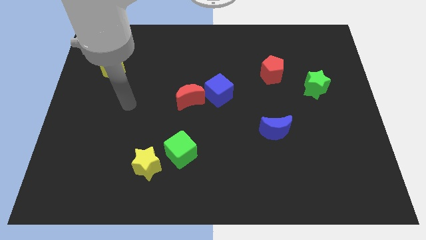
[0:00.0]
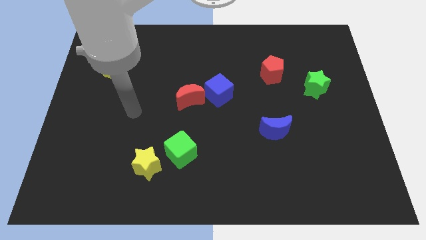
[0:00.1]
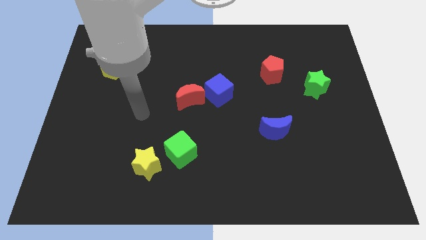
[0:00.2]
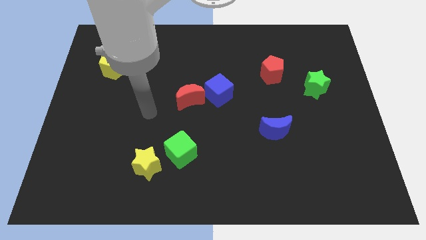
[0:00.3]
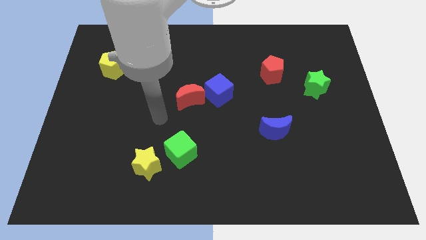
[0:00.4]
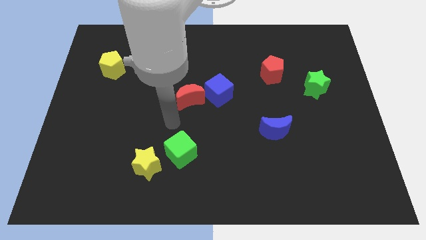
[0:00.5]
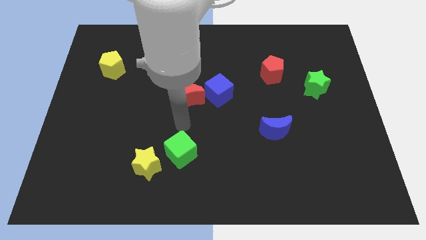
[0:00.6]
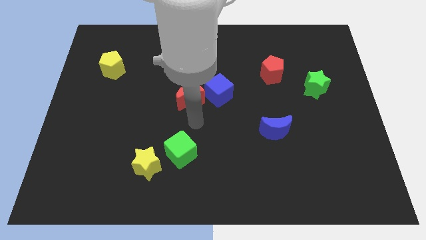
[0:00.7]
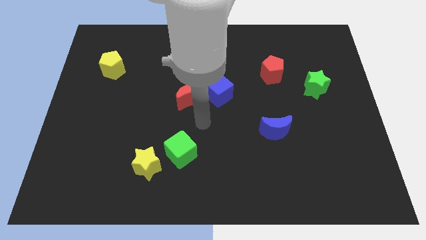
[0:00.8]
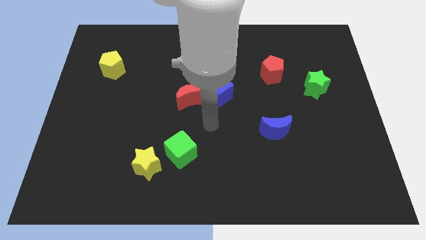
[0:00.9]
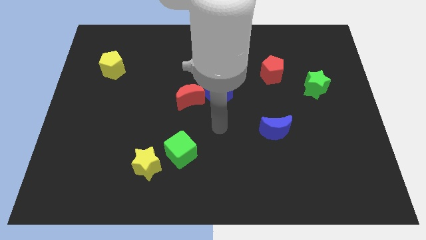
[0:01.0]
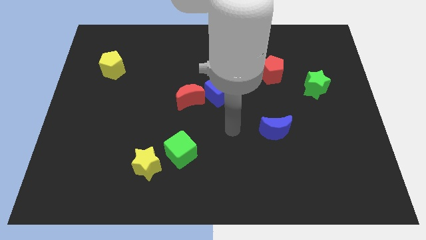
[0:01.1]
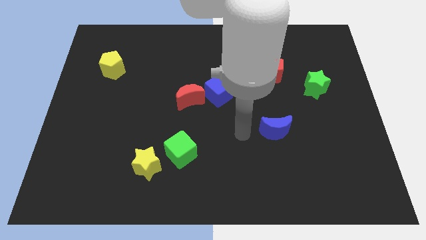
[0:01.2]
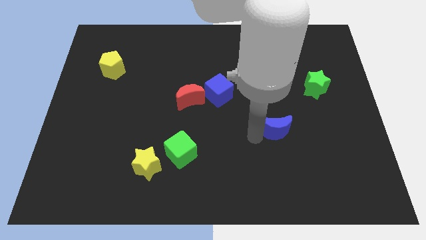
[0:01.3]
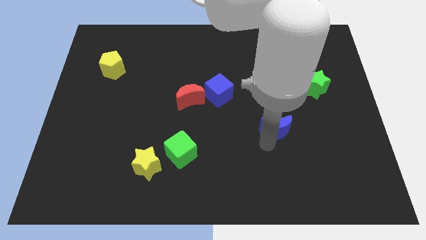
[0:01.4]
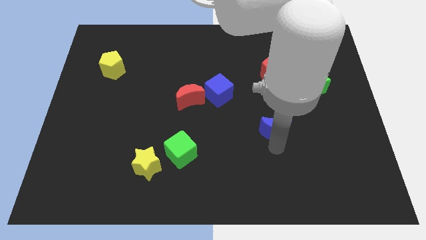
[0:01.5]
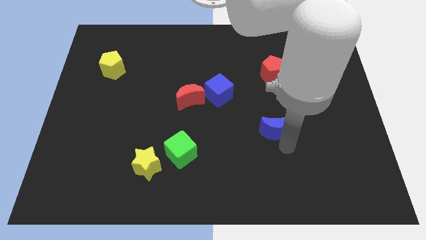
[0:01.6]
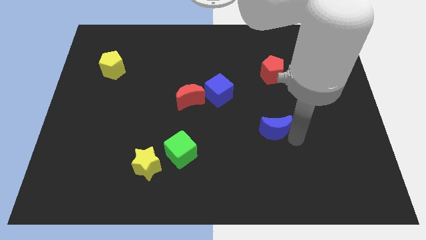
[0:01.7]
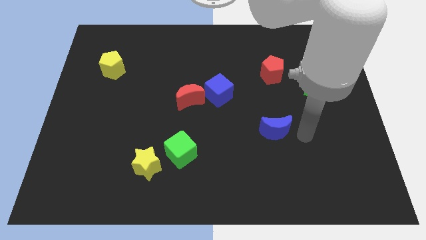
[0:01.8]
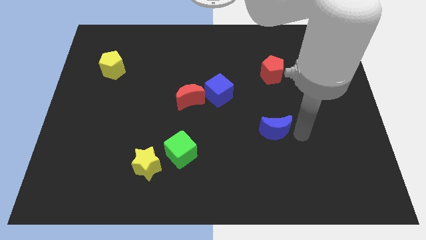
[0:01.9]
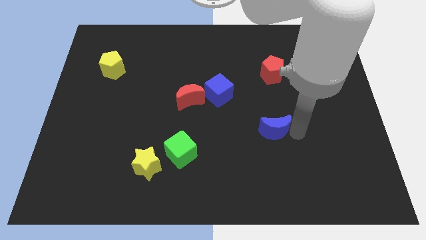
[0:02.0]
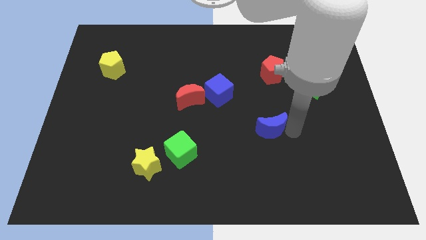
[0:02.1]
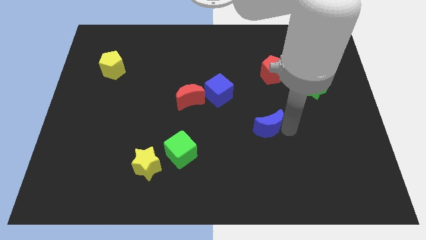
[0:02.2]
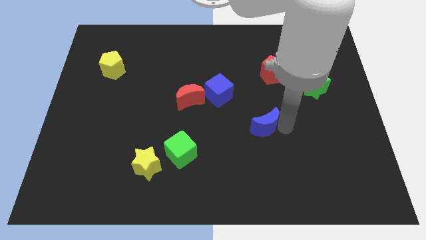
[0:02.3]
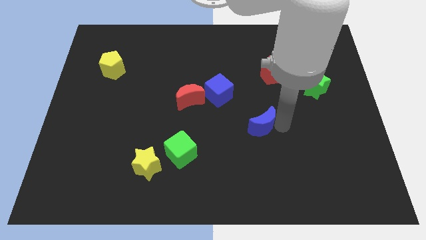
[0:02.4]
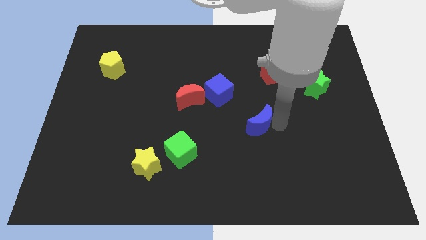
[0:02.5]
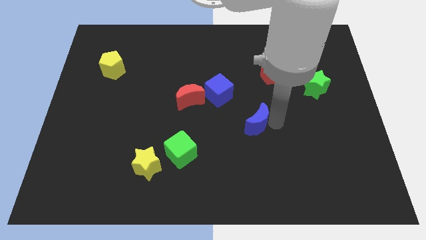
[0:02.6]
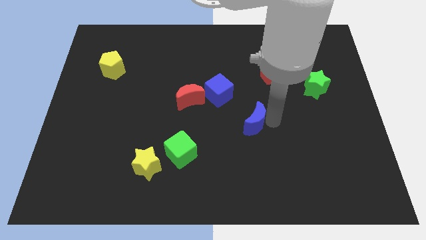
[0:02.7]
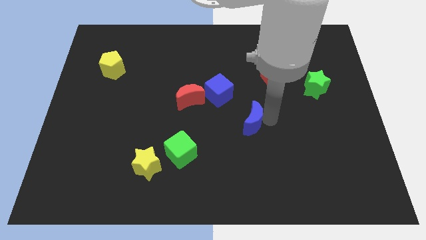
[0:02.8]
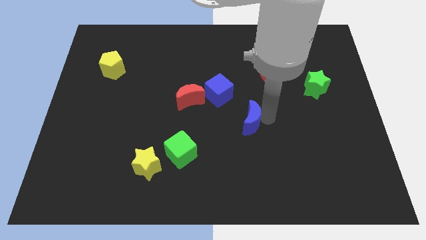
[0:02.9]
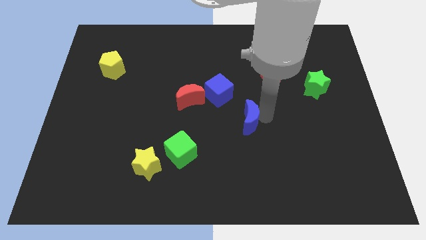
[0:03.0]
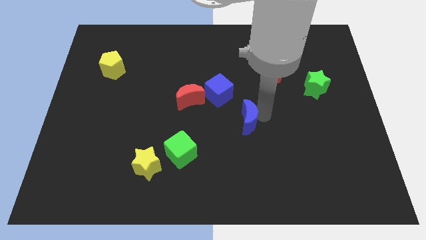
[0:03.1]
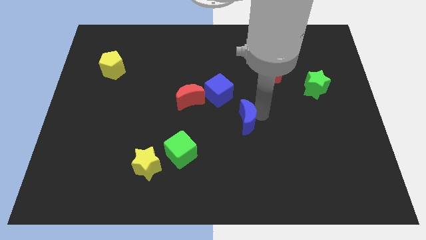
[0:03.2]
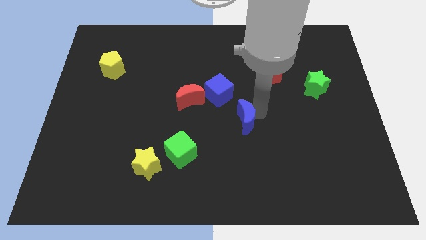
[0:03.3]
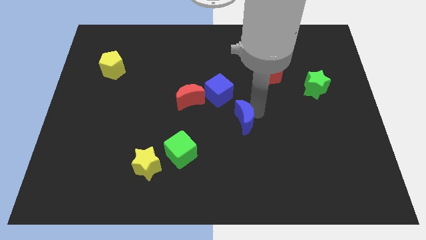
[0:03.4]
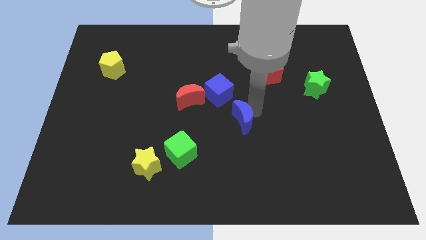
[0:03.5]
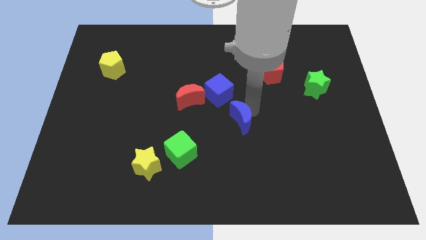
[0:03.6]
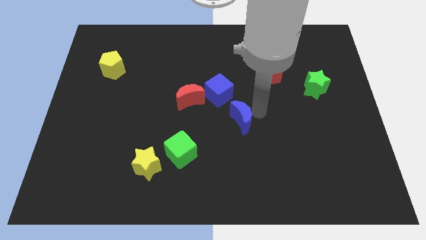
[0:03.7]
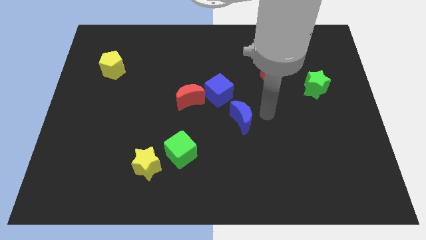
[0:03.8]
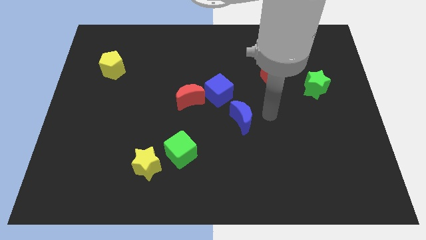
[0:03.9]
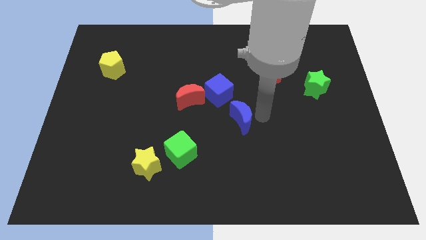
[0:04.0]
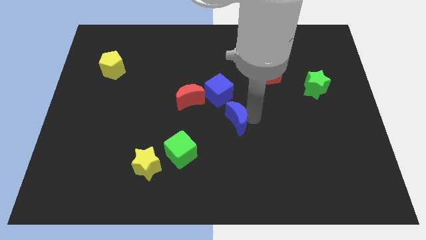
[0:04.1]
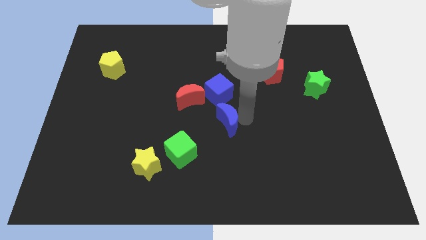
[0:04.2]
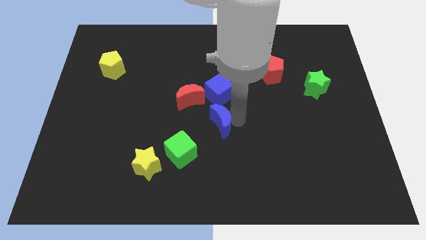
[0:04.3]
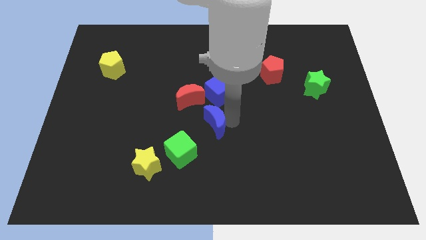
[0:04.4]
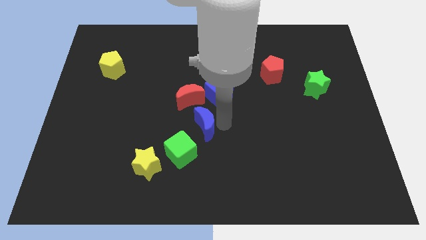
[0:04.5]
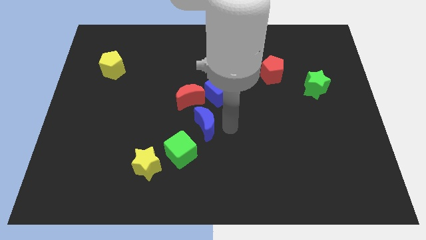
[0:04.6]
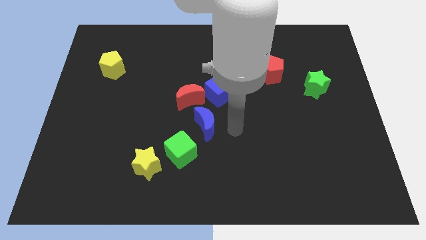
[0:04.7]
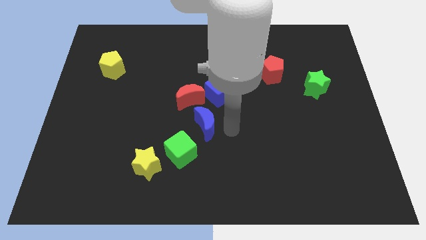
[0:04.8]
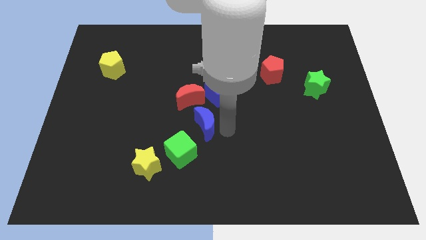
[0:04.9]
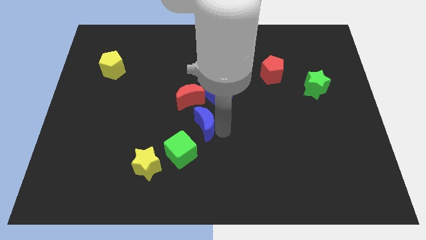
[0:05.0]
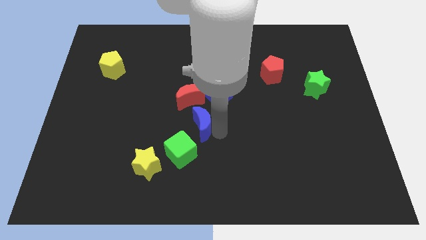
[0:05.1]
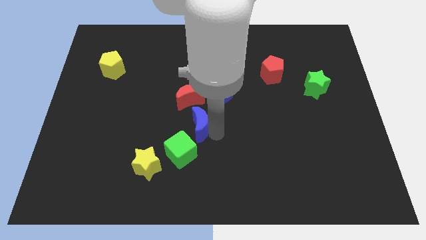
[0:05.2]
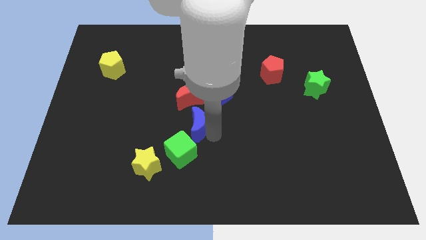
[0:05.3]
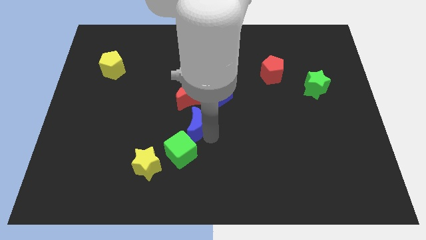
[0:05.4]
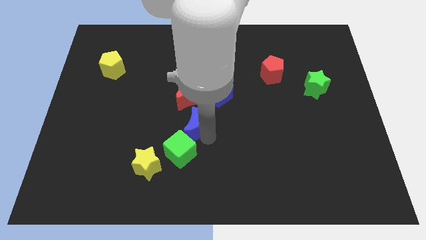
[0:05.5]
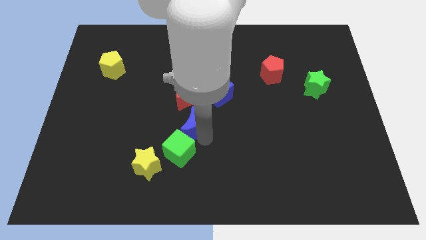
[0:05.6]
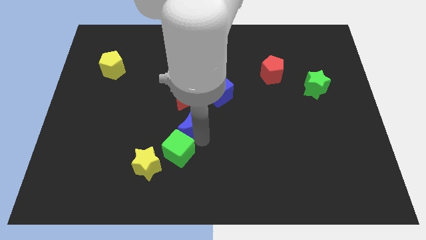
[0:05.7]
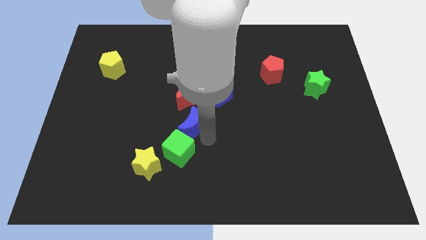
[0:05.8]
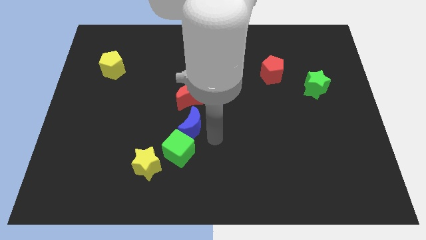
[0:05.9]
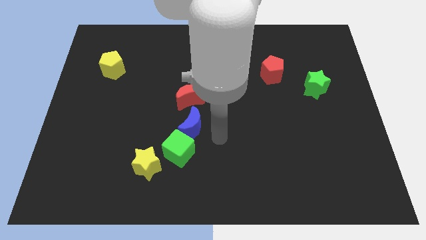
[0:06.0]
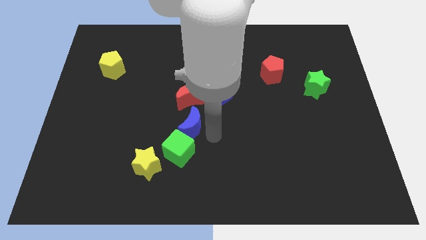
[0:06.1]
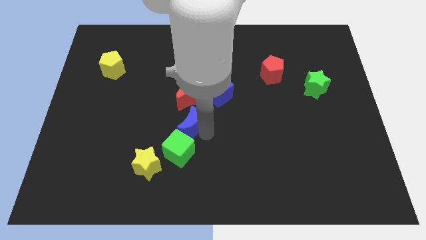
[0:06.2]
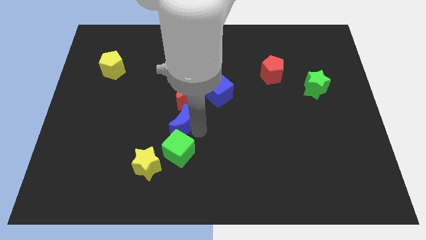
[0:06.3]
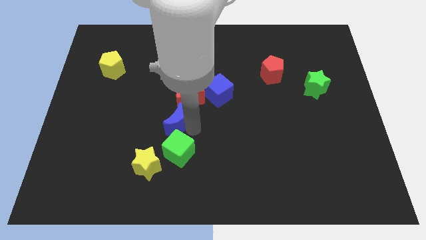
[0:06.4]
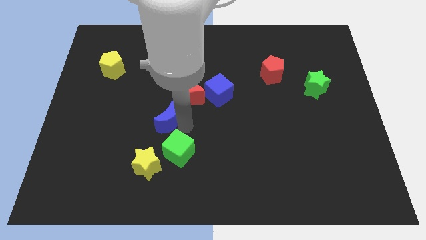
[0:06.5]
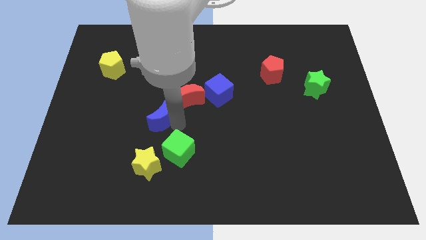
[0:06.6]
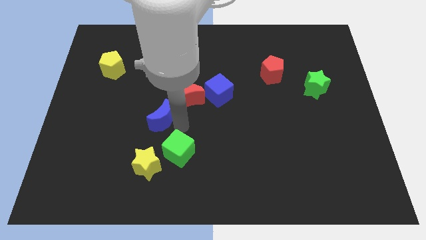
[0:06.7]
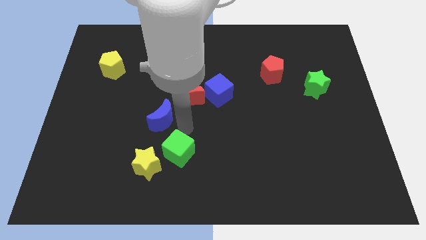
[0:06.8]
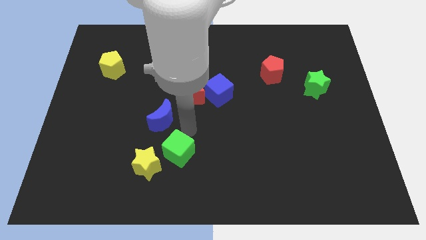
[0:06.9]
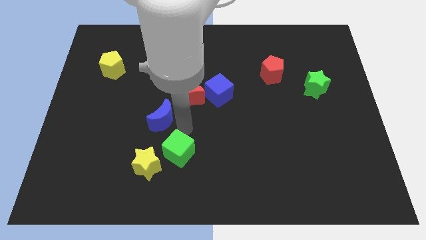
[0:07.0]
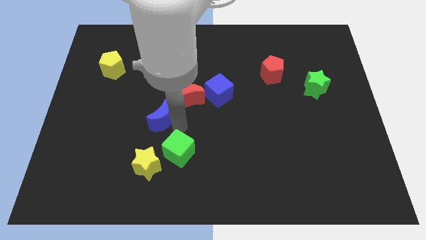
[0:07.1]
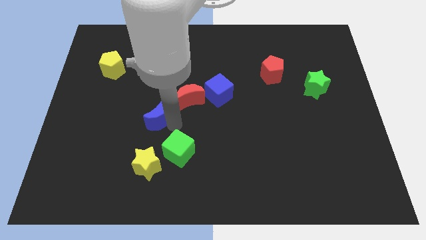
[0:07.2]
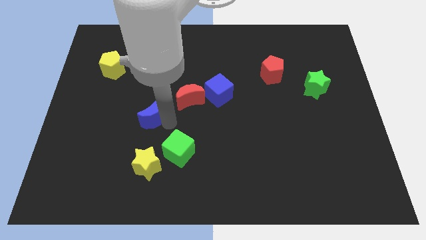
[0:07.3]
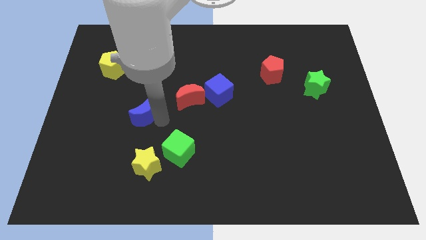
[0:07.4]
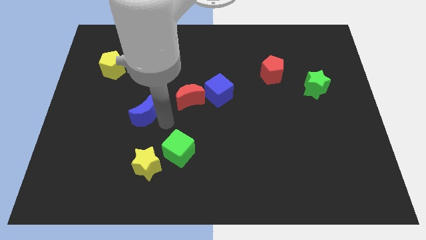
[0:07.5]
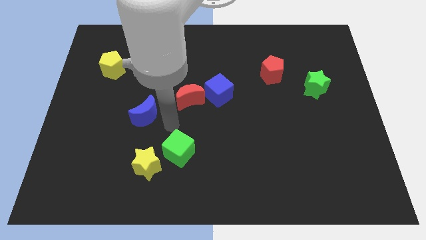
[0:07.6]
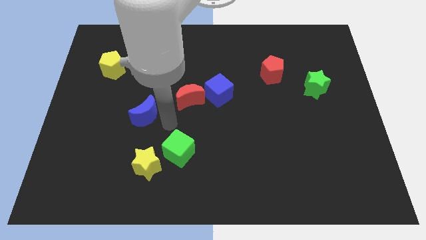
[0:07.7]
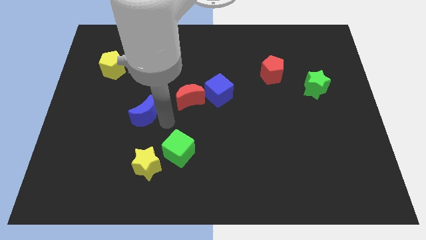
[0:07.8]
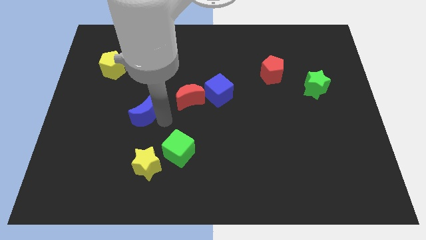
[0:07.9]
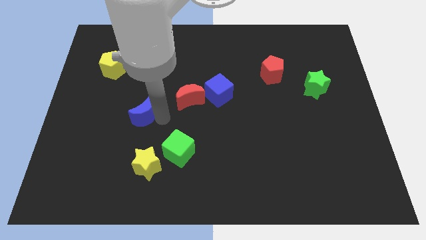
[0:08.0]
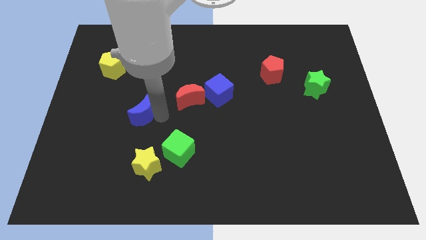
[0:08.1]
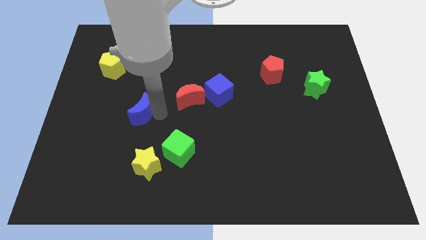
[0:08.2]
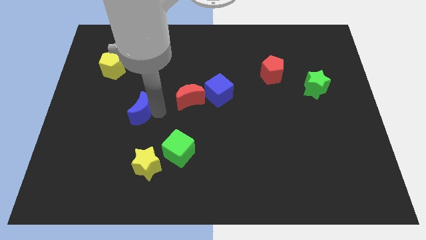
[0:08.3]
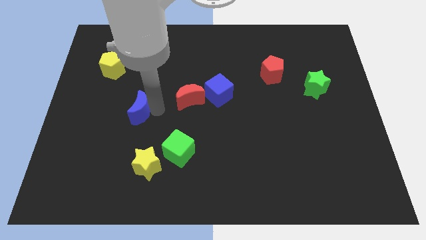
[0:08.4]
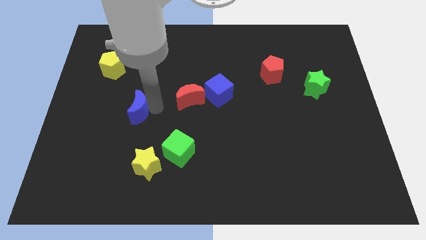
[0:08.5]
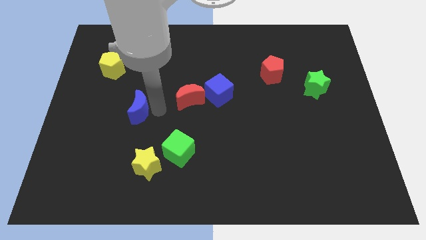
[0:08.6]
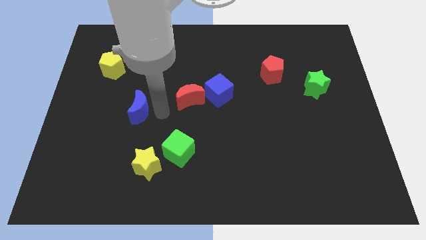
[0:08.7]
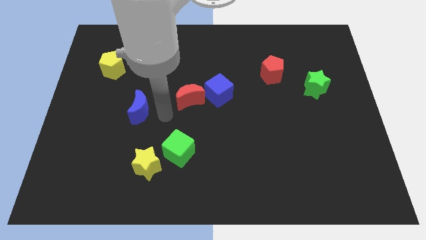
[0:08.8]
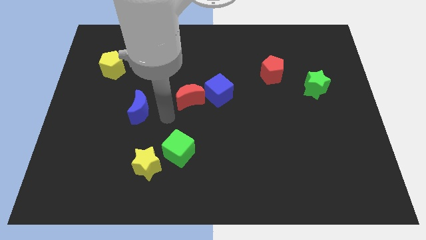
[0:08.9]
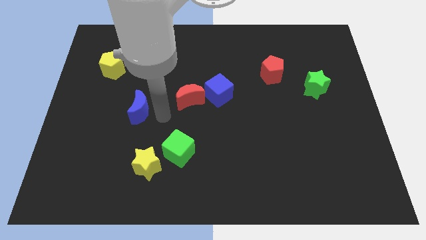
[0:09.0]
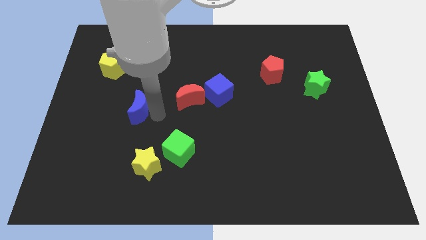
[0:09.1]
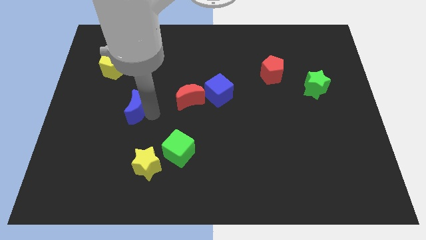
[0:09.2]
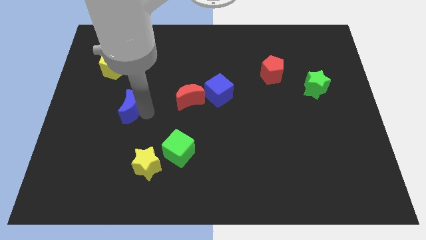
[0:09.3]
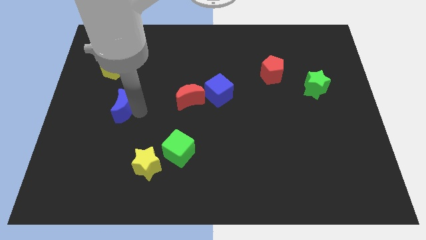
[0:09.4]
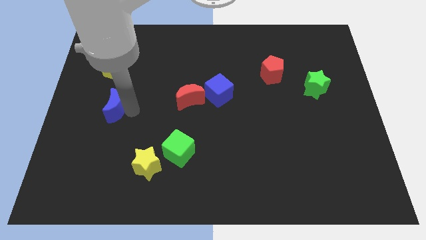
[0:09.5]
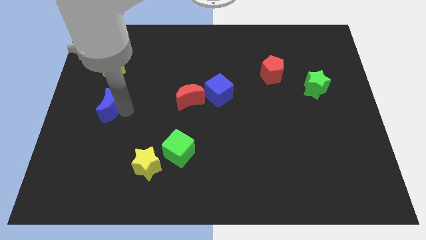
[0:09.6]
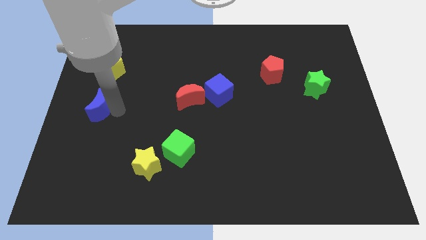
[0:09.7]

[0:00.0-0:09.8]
push the blue moon to the left side of the board
